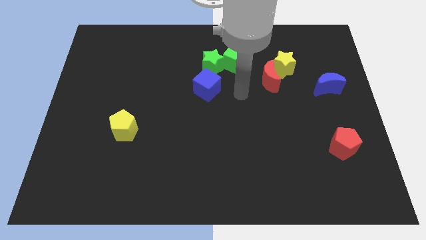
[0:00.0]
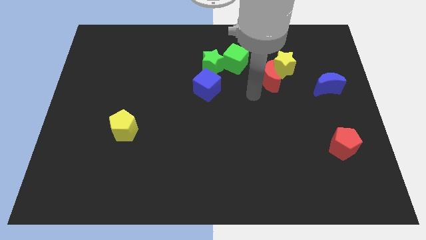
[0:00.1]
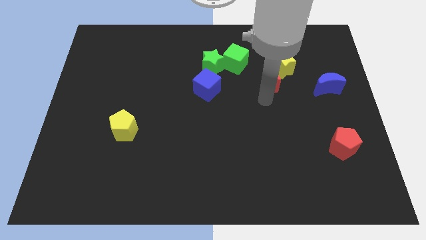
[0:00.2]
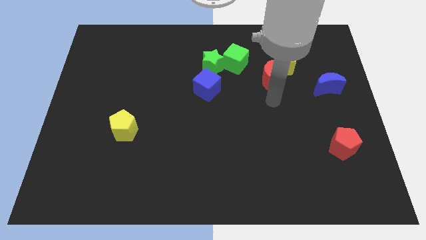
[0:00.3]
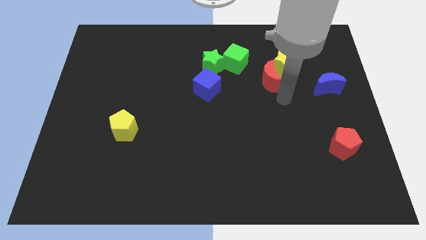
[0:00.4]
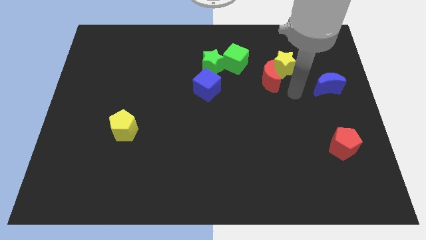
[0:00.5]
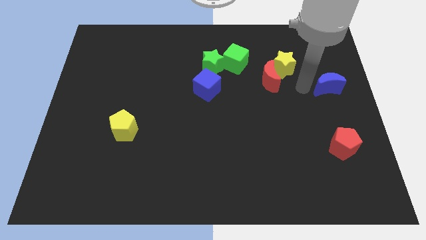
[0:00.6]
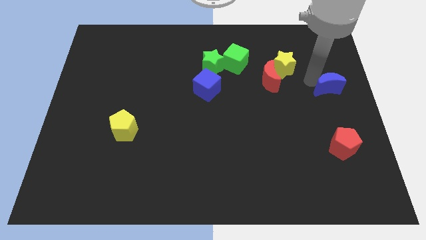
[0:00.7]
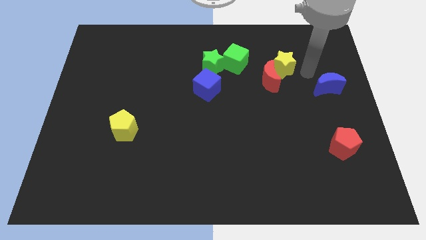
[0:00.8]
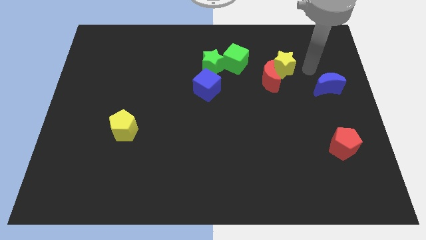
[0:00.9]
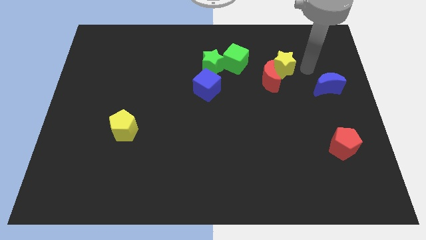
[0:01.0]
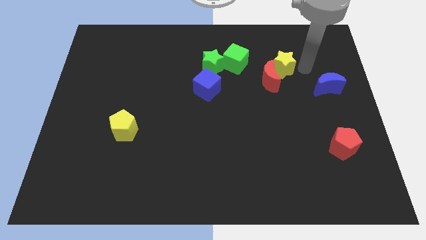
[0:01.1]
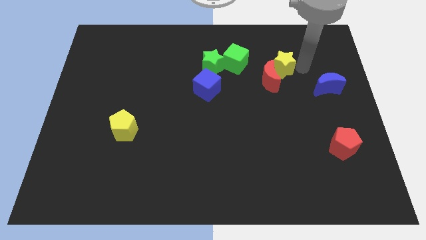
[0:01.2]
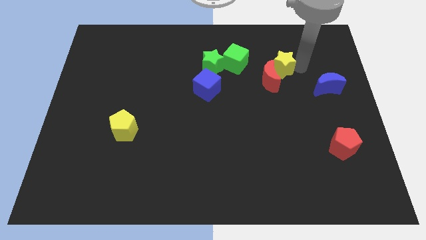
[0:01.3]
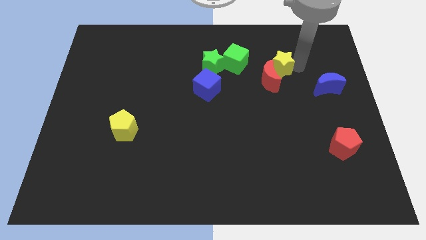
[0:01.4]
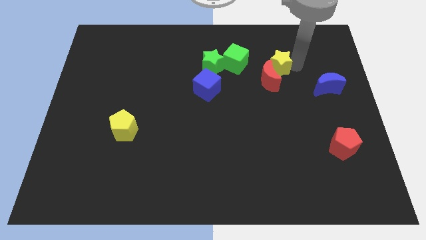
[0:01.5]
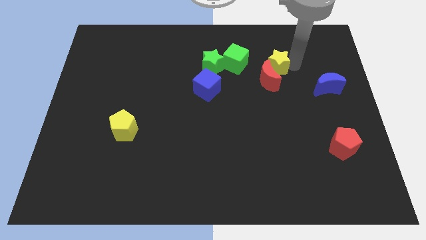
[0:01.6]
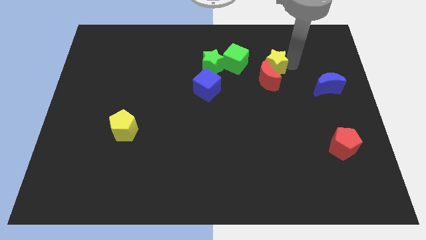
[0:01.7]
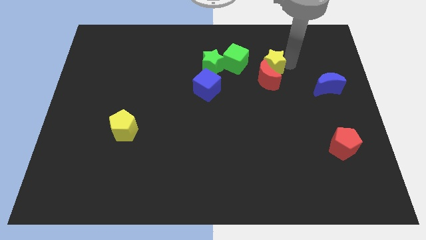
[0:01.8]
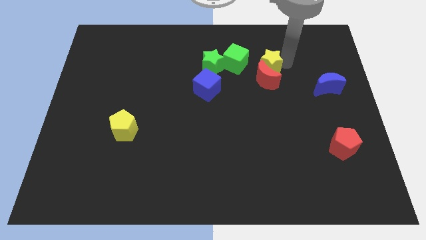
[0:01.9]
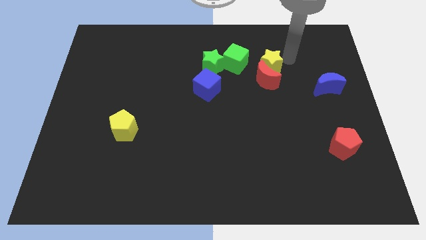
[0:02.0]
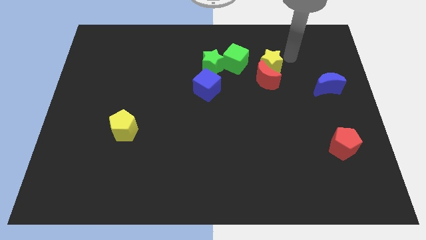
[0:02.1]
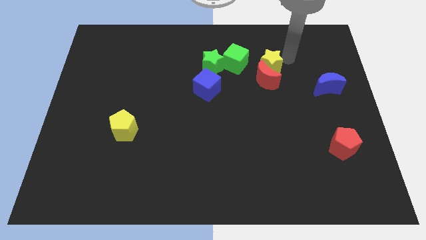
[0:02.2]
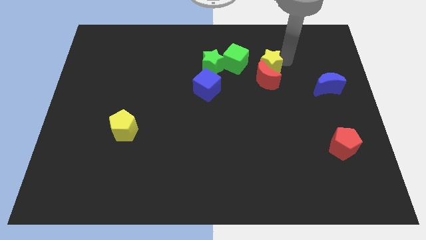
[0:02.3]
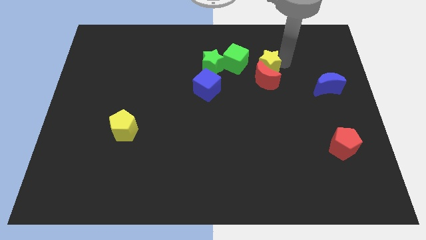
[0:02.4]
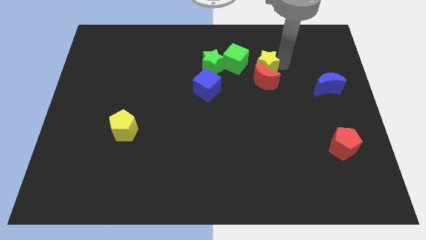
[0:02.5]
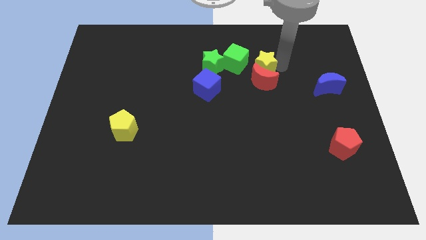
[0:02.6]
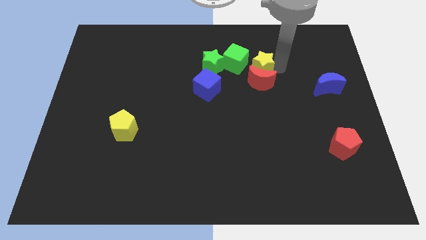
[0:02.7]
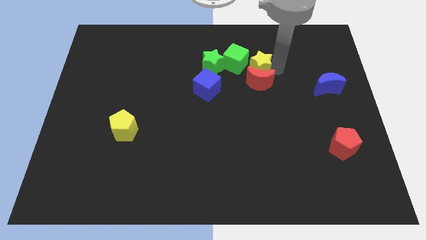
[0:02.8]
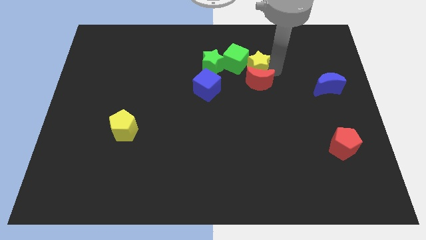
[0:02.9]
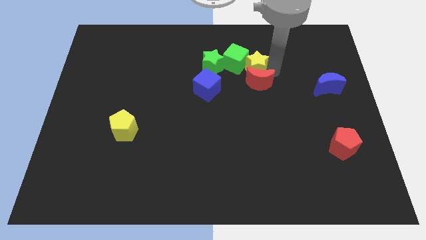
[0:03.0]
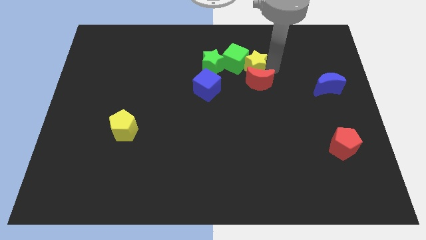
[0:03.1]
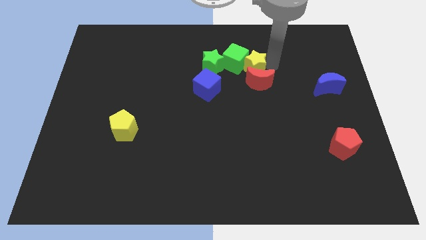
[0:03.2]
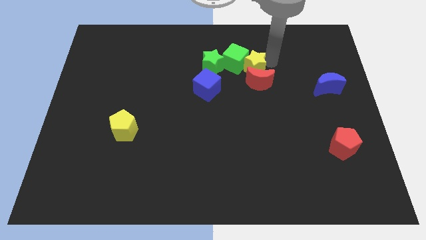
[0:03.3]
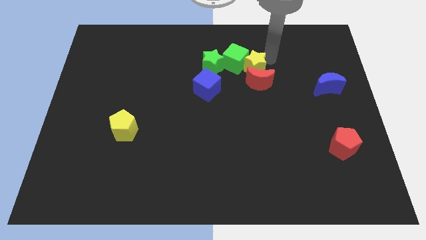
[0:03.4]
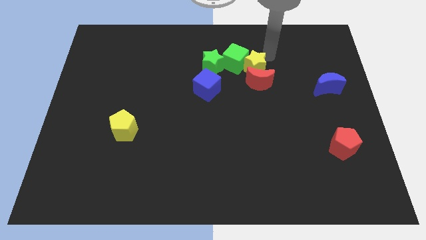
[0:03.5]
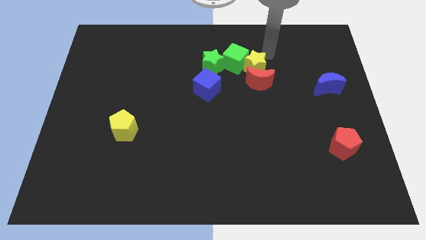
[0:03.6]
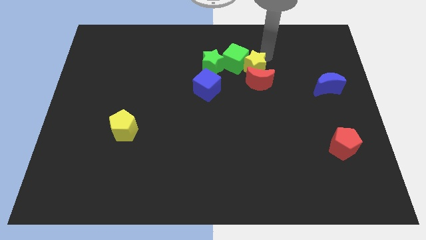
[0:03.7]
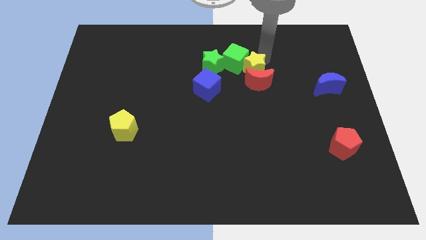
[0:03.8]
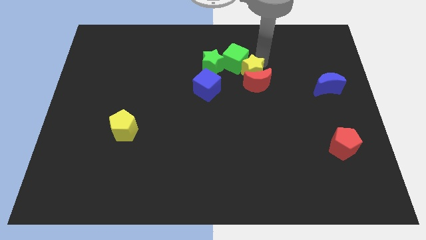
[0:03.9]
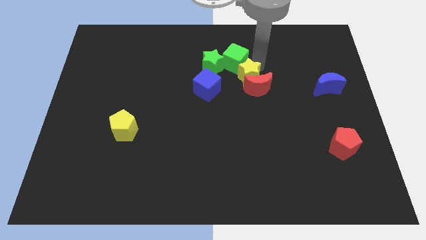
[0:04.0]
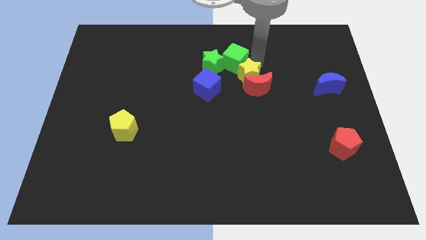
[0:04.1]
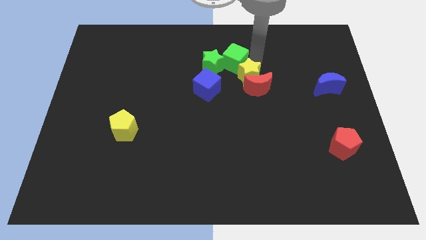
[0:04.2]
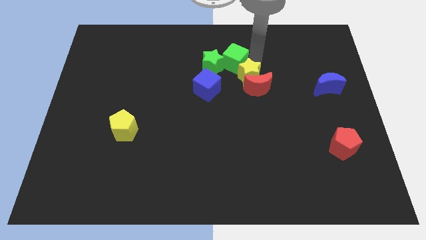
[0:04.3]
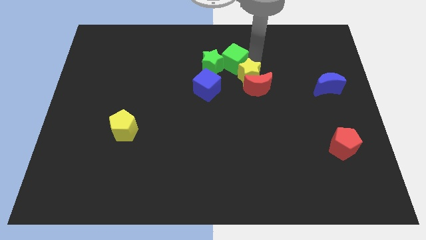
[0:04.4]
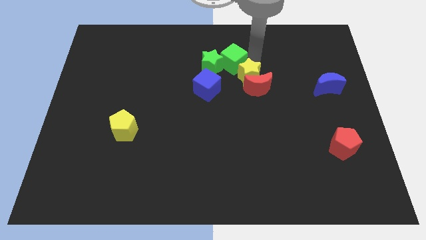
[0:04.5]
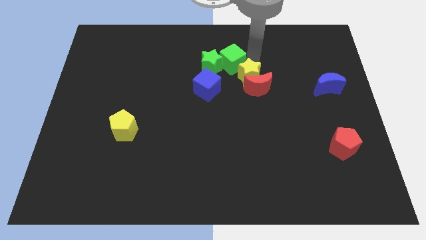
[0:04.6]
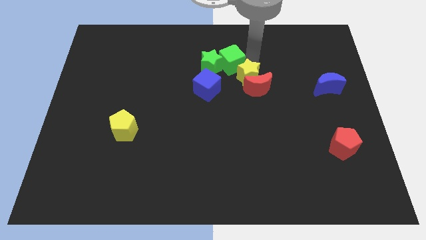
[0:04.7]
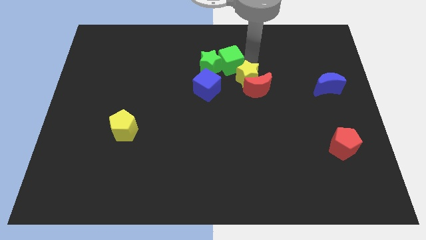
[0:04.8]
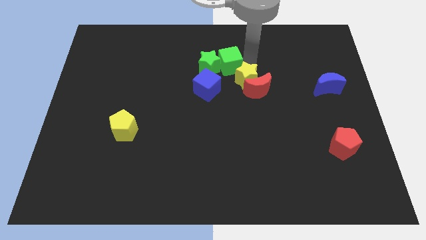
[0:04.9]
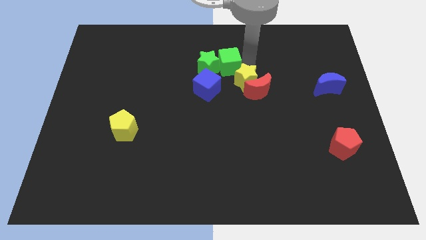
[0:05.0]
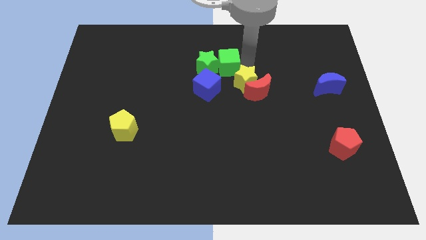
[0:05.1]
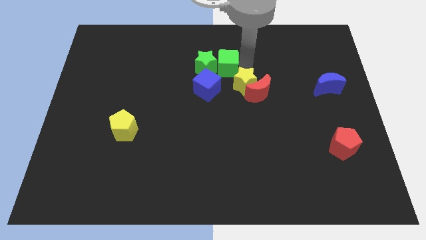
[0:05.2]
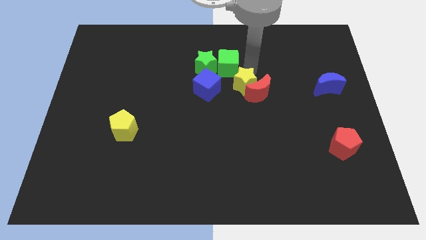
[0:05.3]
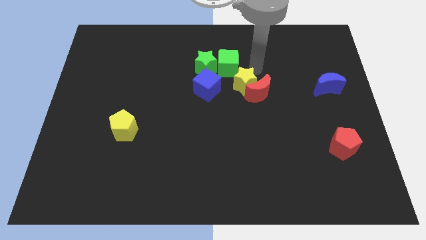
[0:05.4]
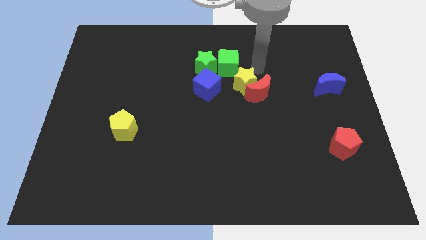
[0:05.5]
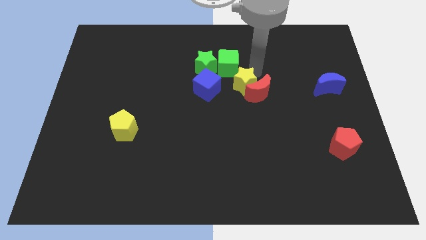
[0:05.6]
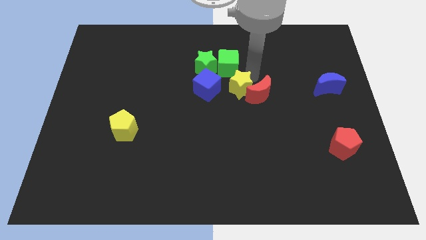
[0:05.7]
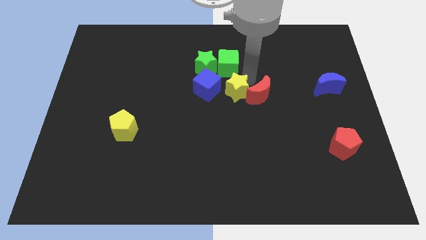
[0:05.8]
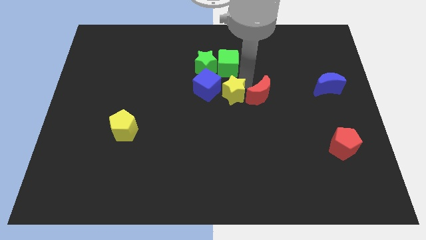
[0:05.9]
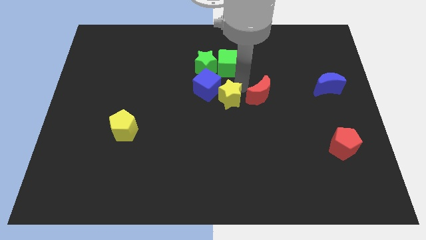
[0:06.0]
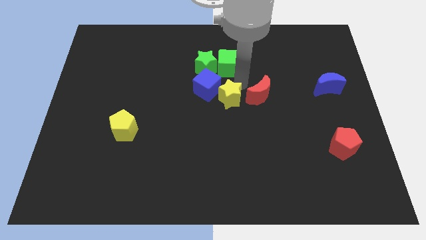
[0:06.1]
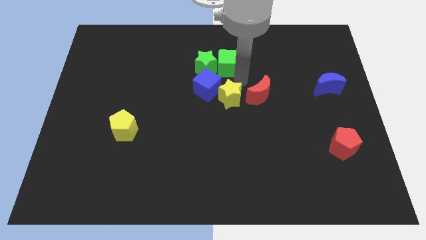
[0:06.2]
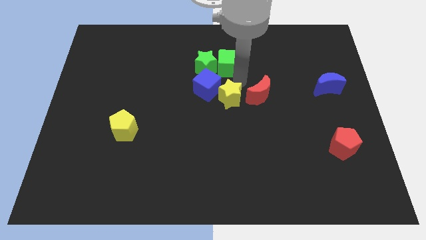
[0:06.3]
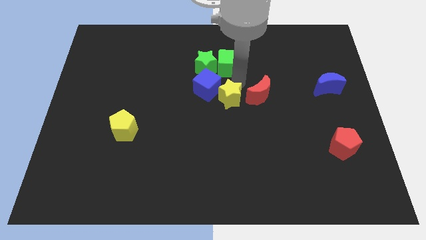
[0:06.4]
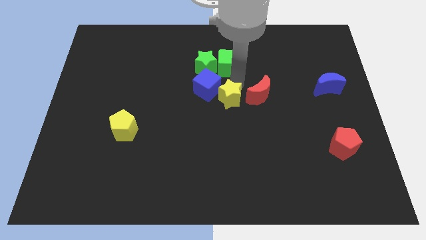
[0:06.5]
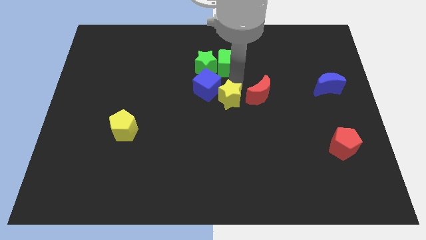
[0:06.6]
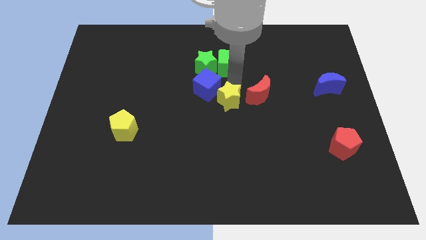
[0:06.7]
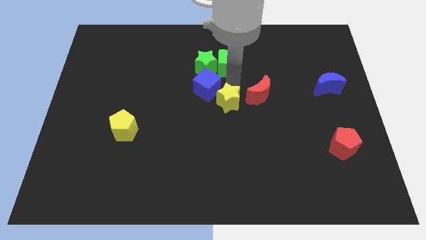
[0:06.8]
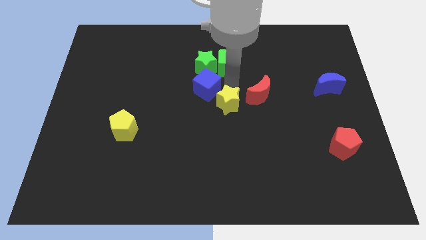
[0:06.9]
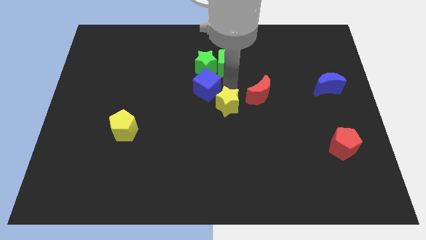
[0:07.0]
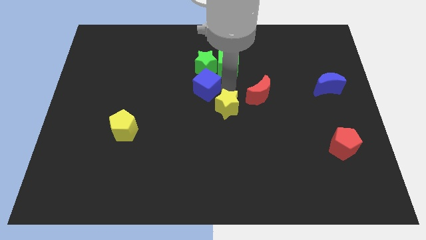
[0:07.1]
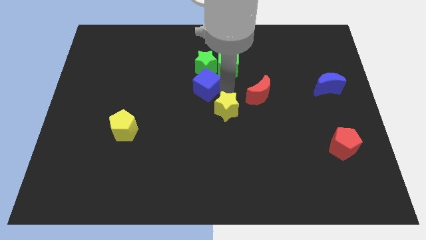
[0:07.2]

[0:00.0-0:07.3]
push the yellow star downwards and to the left diagonally

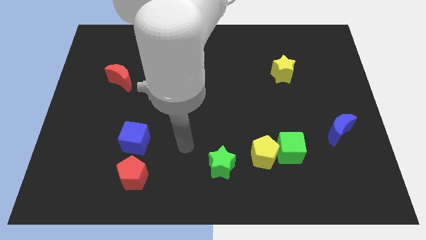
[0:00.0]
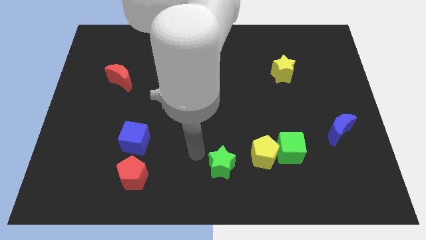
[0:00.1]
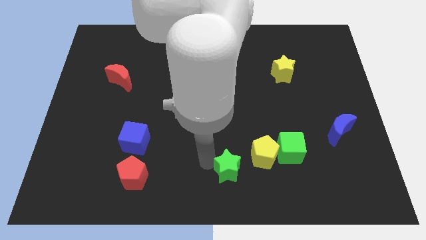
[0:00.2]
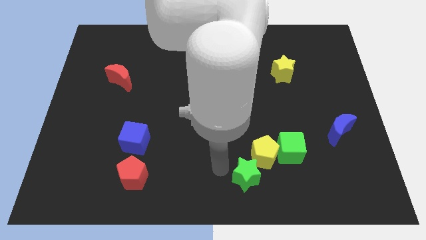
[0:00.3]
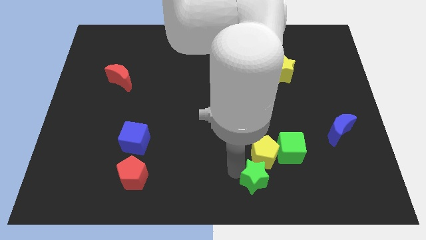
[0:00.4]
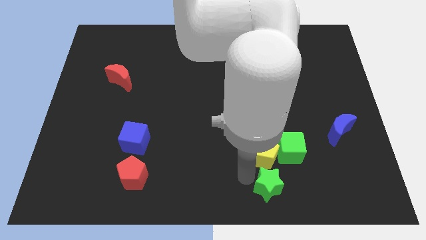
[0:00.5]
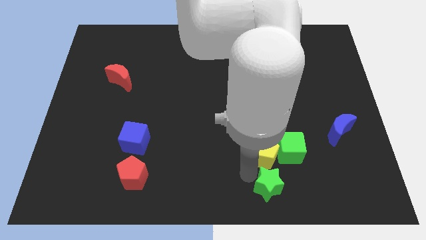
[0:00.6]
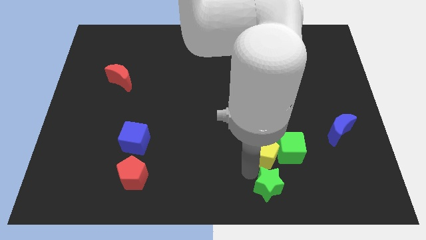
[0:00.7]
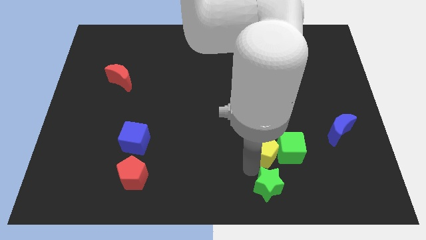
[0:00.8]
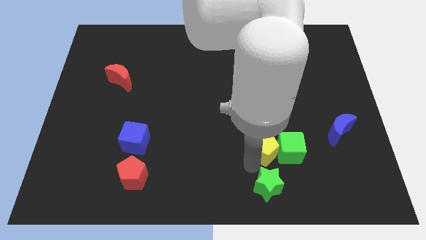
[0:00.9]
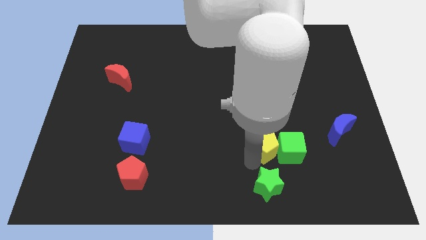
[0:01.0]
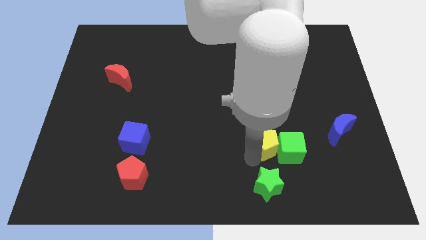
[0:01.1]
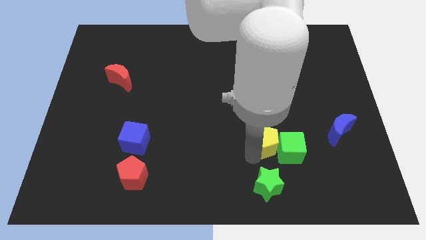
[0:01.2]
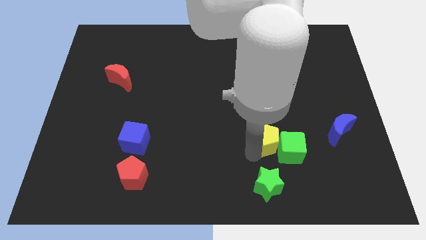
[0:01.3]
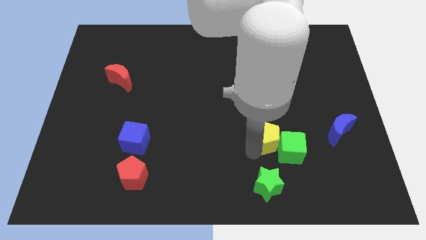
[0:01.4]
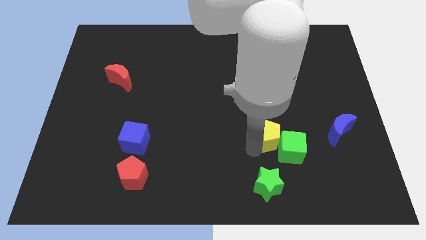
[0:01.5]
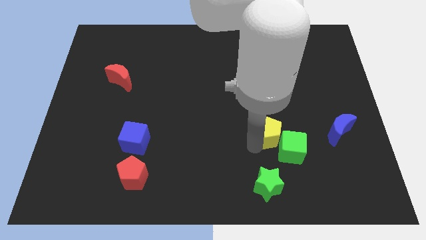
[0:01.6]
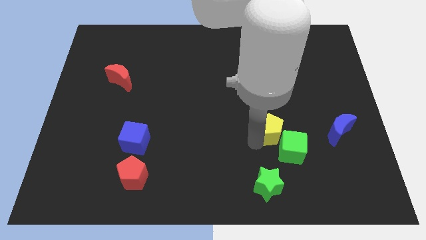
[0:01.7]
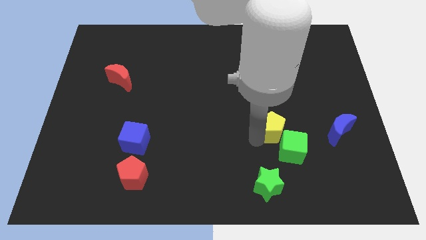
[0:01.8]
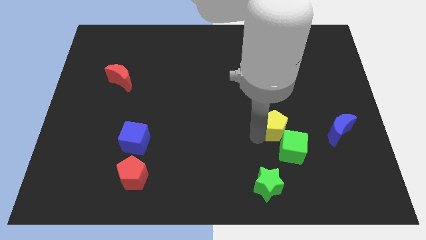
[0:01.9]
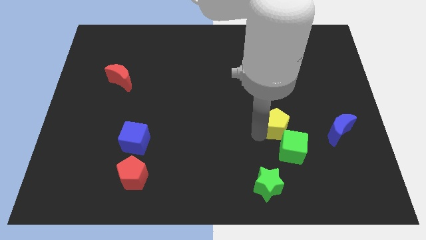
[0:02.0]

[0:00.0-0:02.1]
push the yellow pentagon slightly up and to the right diagonally
